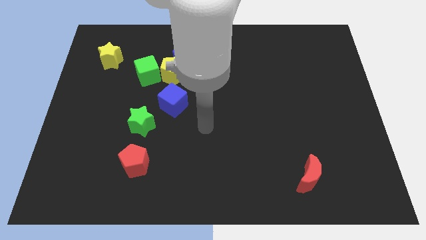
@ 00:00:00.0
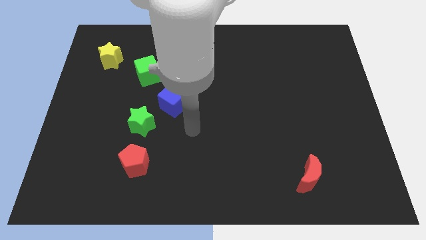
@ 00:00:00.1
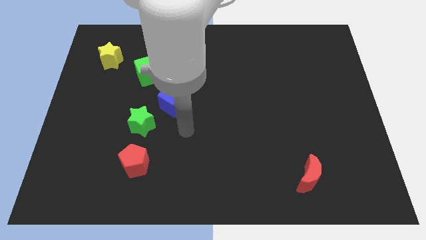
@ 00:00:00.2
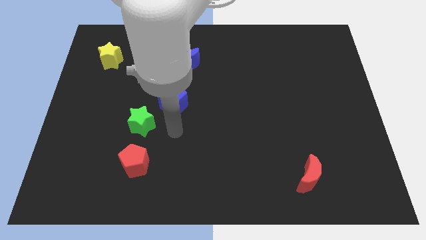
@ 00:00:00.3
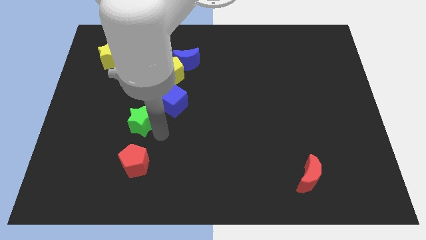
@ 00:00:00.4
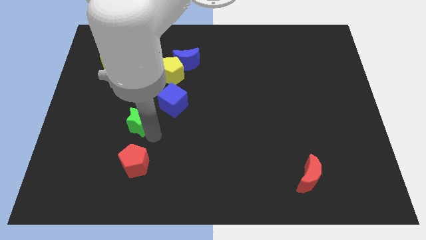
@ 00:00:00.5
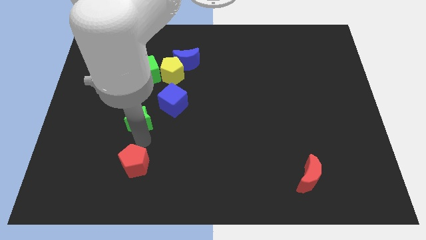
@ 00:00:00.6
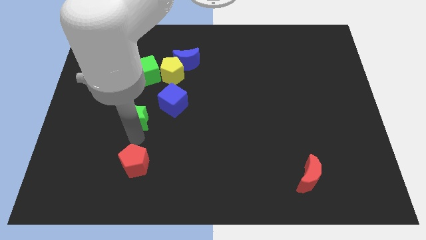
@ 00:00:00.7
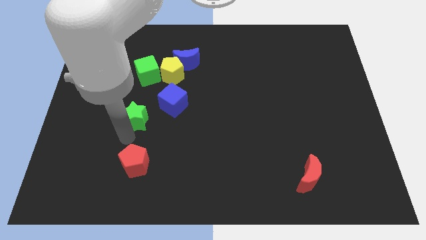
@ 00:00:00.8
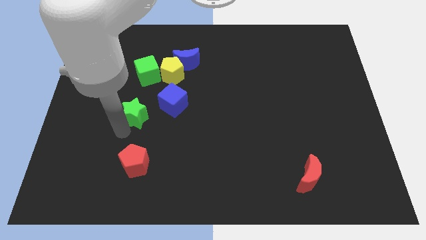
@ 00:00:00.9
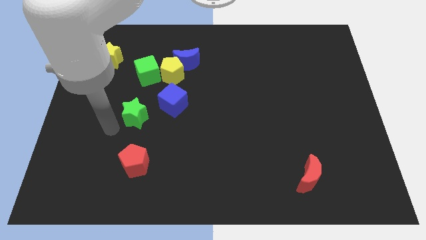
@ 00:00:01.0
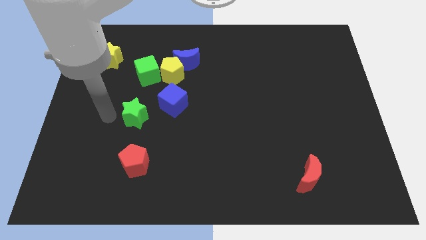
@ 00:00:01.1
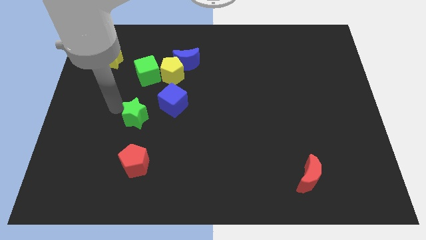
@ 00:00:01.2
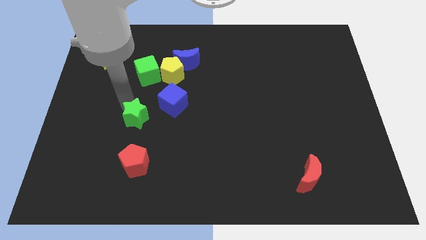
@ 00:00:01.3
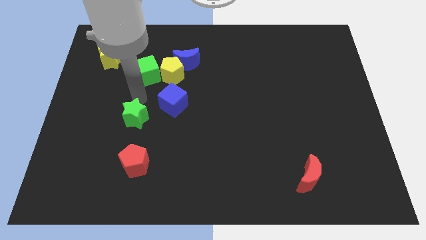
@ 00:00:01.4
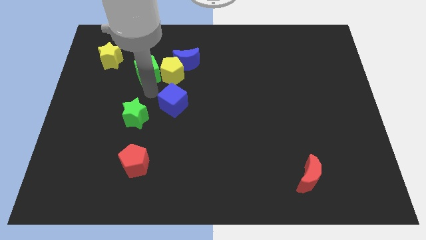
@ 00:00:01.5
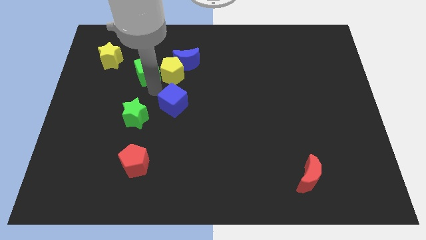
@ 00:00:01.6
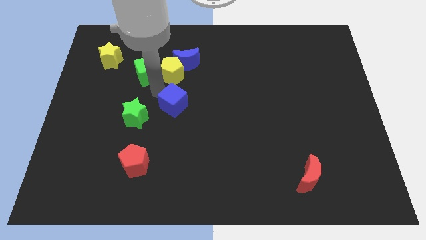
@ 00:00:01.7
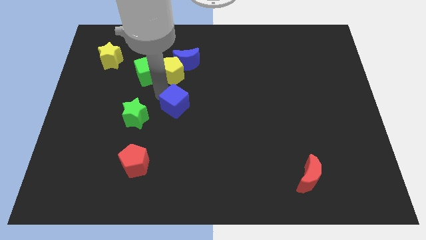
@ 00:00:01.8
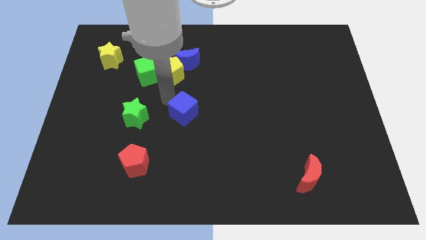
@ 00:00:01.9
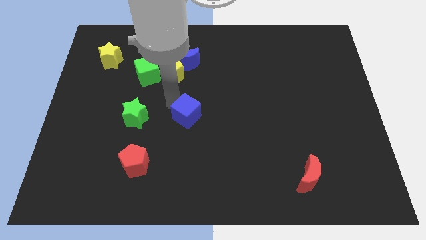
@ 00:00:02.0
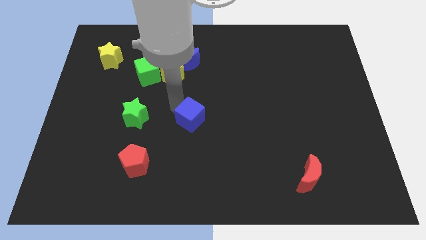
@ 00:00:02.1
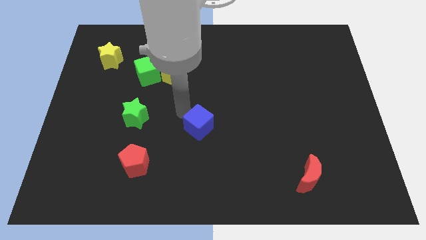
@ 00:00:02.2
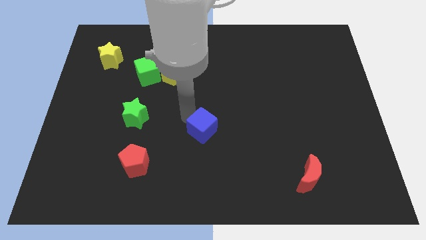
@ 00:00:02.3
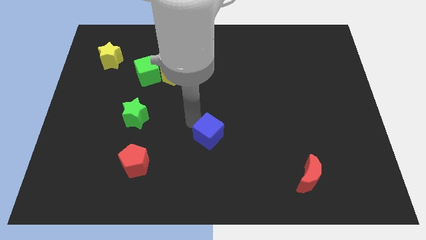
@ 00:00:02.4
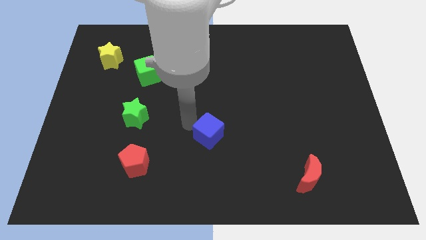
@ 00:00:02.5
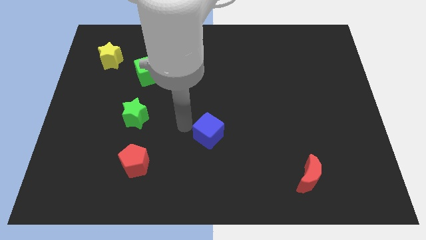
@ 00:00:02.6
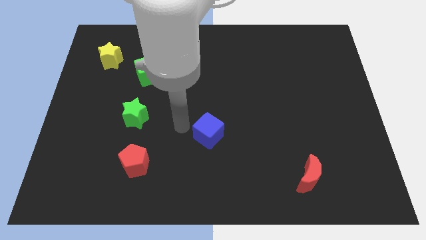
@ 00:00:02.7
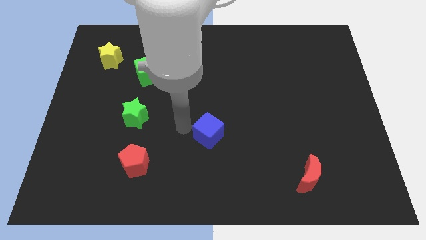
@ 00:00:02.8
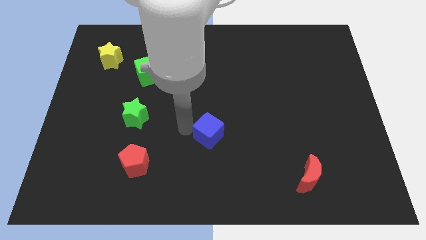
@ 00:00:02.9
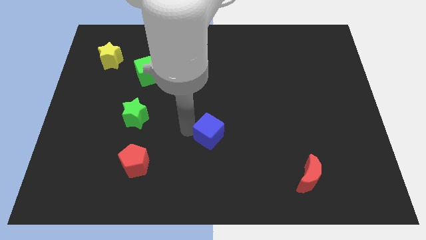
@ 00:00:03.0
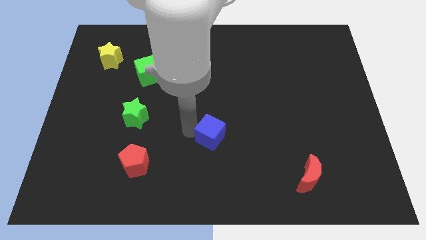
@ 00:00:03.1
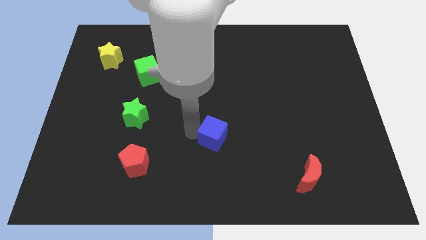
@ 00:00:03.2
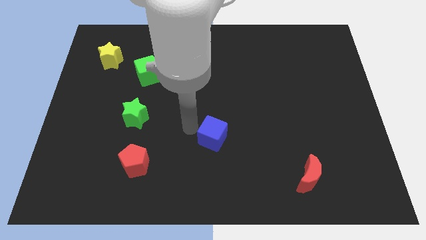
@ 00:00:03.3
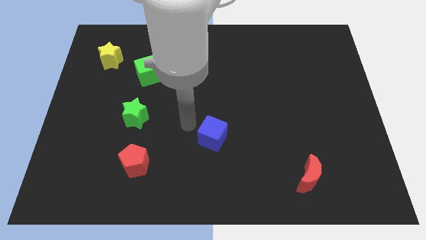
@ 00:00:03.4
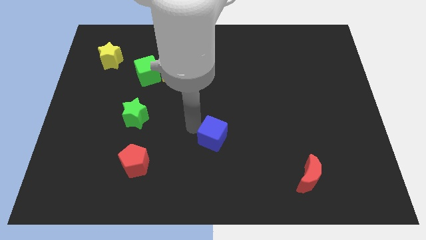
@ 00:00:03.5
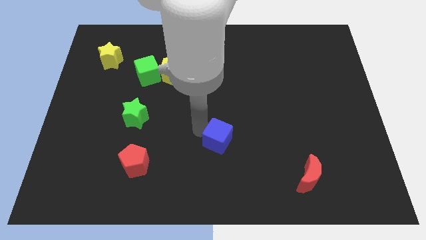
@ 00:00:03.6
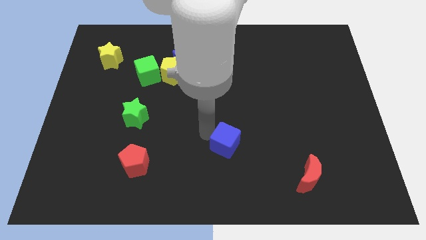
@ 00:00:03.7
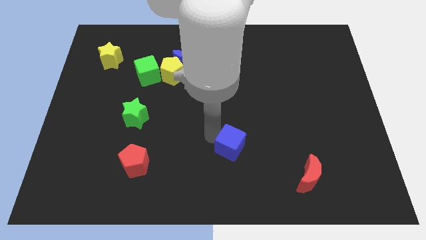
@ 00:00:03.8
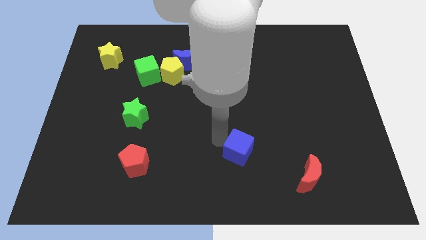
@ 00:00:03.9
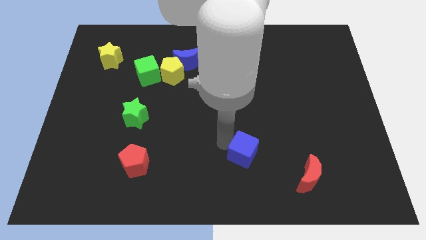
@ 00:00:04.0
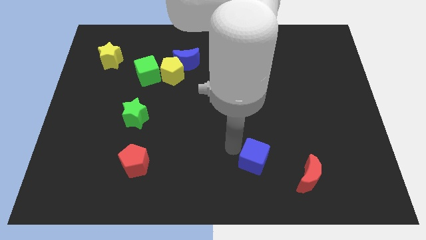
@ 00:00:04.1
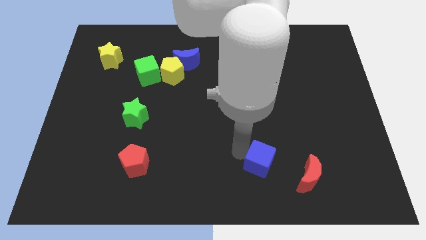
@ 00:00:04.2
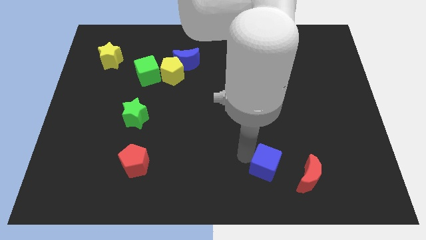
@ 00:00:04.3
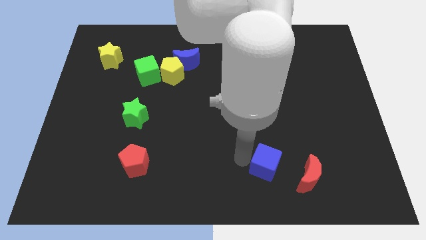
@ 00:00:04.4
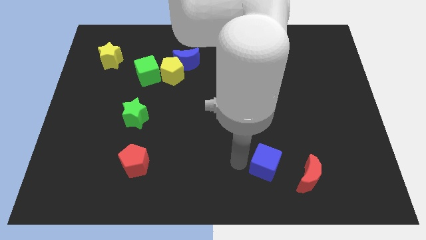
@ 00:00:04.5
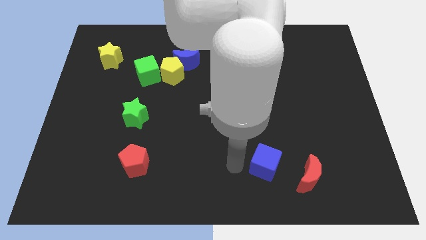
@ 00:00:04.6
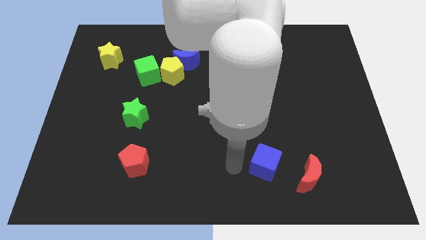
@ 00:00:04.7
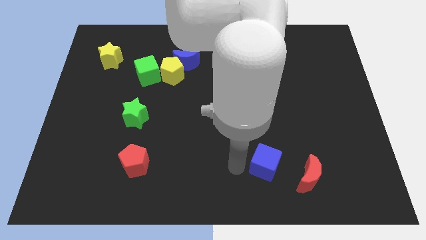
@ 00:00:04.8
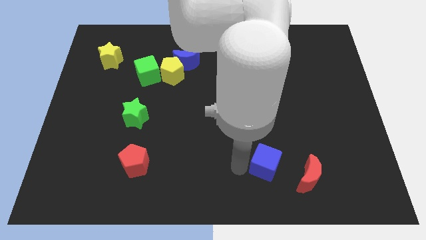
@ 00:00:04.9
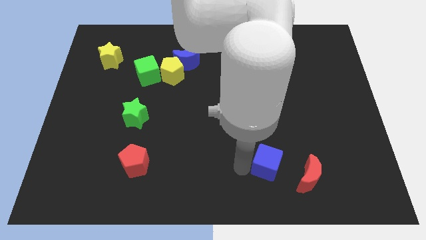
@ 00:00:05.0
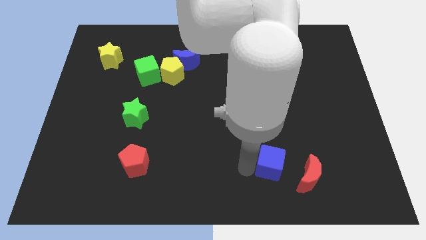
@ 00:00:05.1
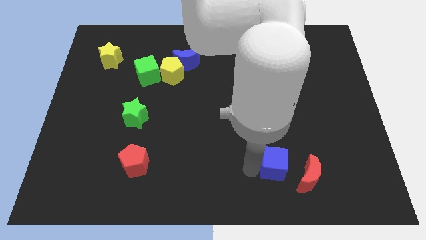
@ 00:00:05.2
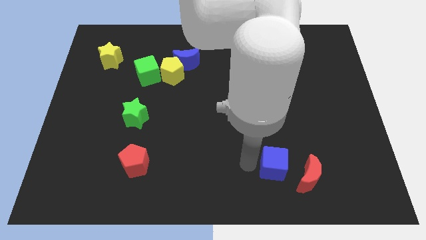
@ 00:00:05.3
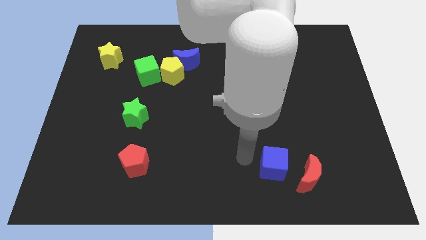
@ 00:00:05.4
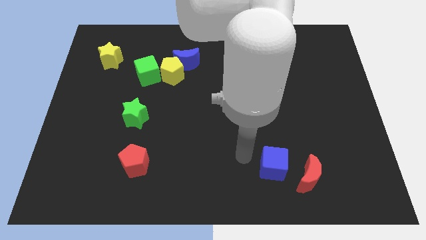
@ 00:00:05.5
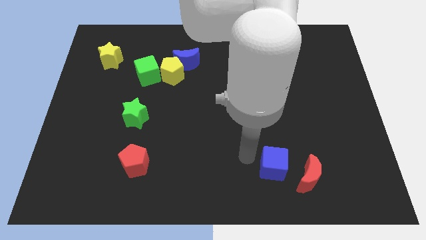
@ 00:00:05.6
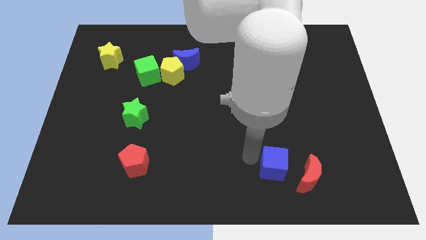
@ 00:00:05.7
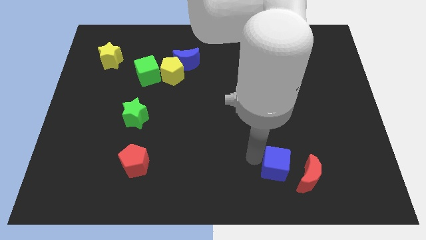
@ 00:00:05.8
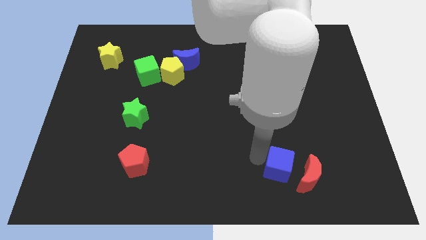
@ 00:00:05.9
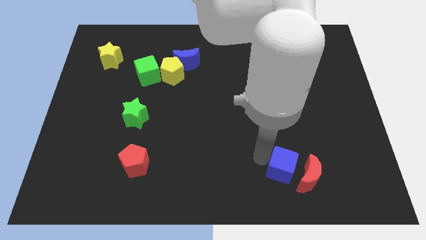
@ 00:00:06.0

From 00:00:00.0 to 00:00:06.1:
push the blue cube close to the red moon

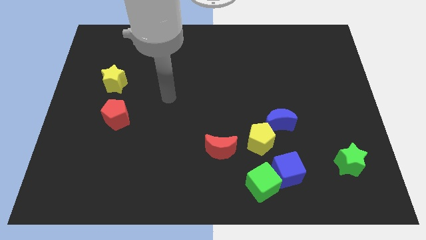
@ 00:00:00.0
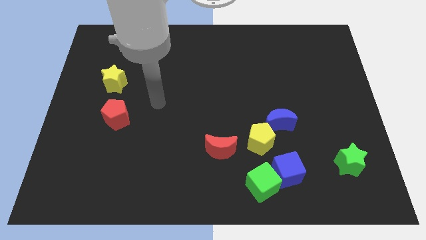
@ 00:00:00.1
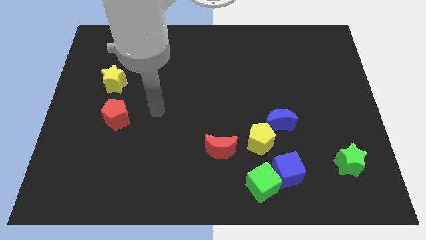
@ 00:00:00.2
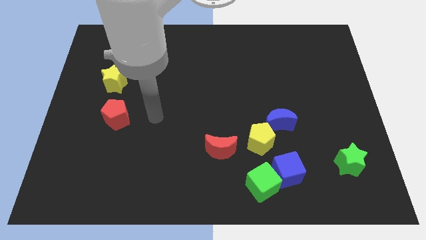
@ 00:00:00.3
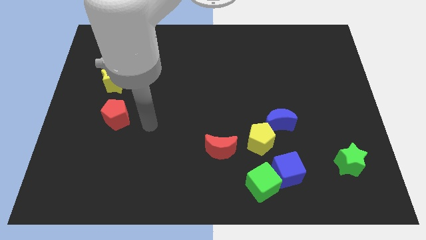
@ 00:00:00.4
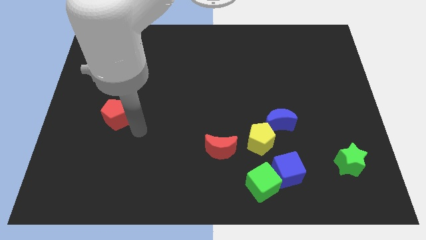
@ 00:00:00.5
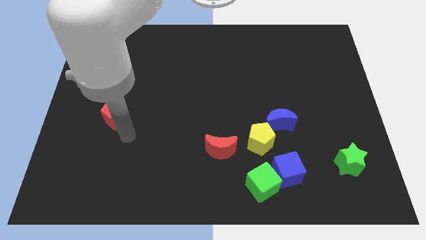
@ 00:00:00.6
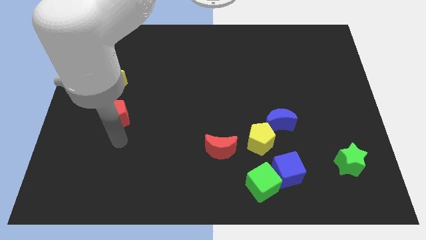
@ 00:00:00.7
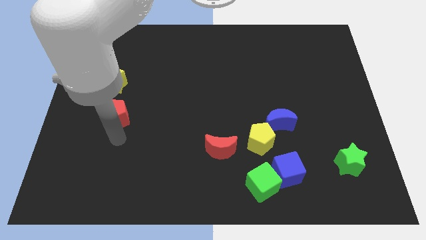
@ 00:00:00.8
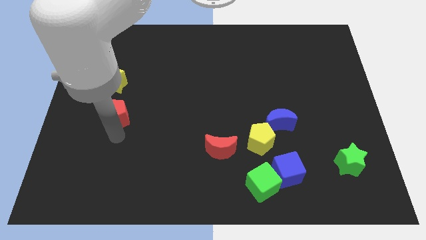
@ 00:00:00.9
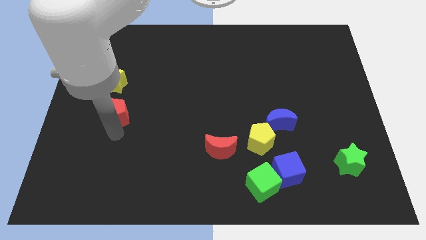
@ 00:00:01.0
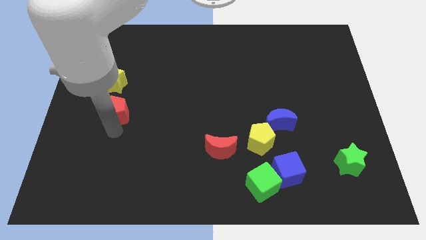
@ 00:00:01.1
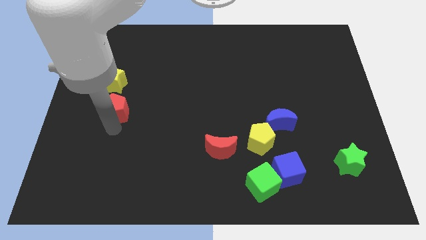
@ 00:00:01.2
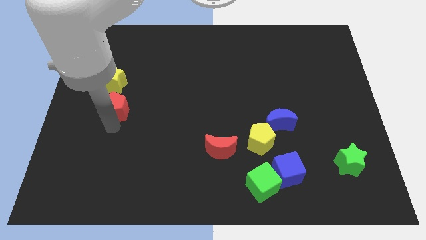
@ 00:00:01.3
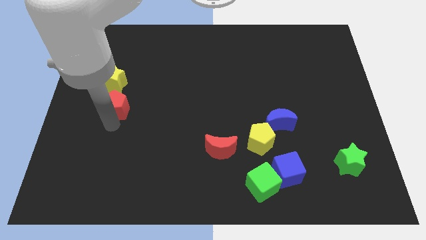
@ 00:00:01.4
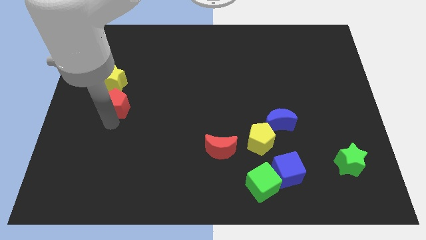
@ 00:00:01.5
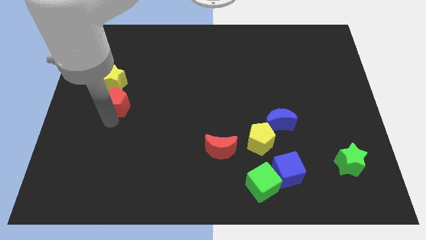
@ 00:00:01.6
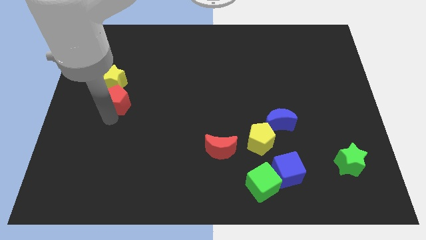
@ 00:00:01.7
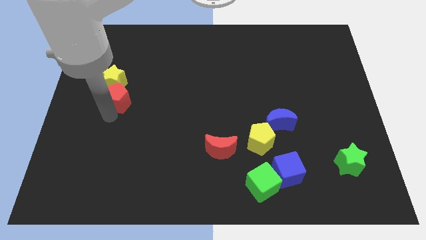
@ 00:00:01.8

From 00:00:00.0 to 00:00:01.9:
move the red pentagon next to the yellow star
